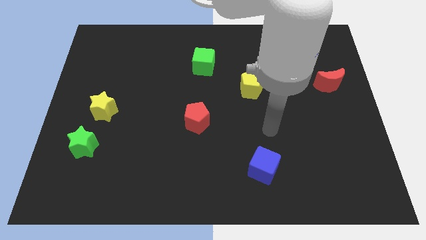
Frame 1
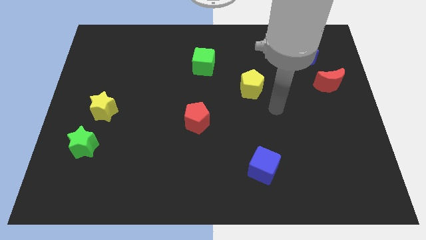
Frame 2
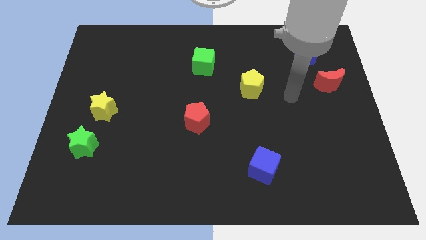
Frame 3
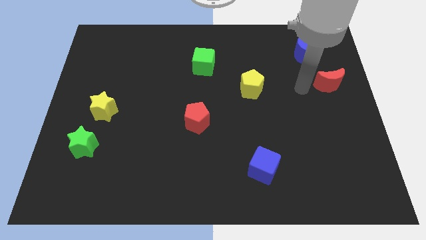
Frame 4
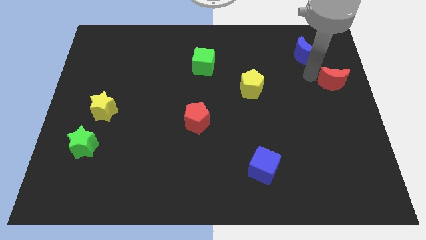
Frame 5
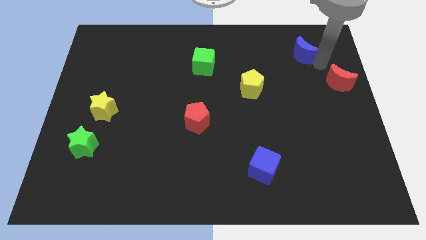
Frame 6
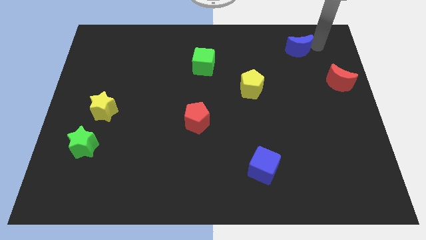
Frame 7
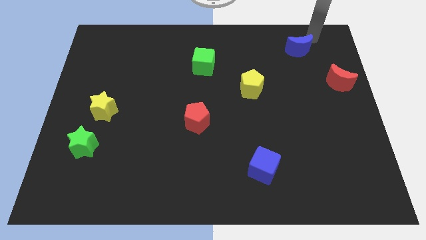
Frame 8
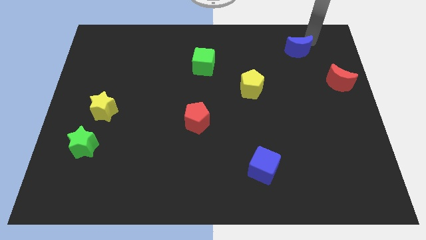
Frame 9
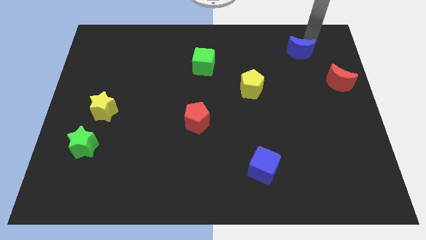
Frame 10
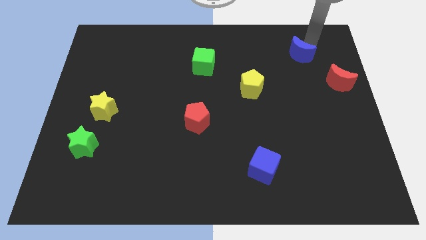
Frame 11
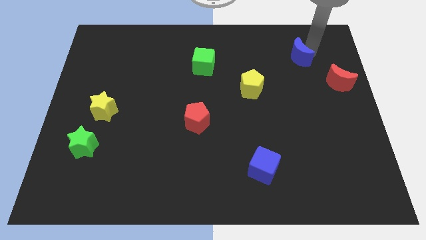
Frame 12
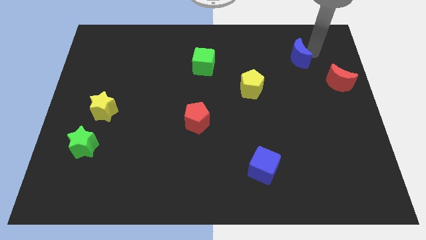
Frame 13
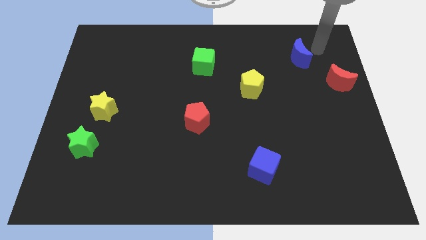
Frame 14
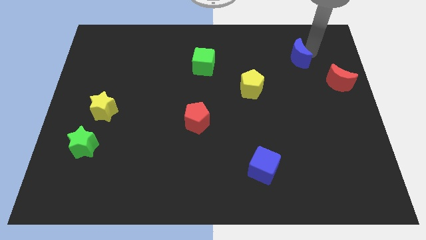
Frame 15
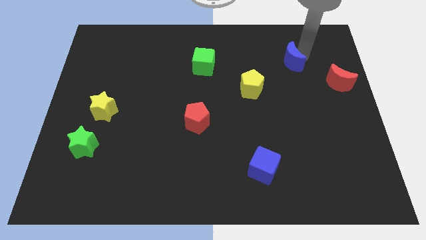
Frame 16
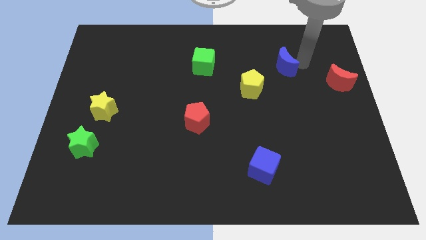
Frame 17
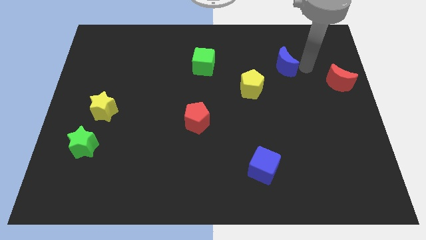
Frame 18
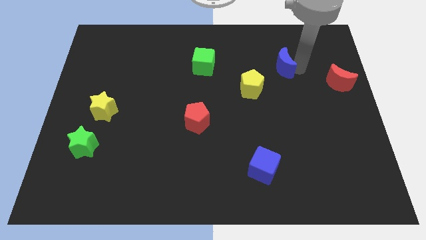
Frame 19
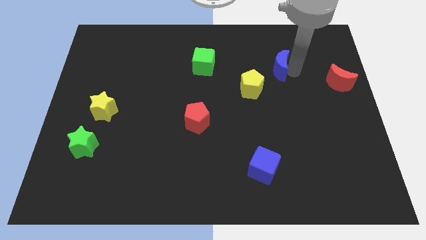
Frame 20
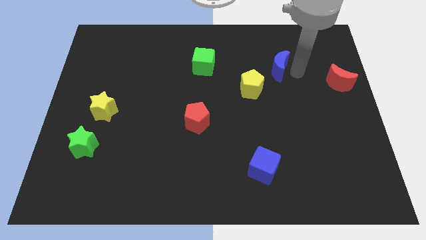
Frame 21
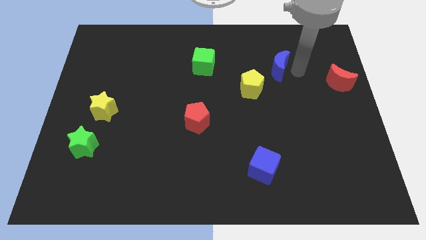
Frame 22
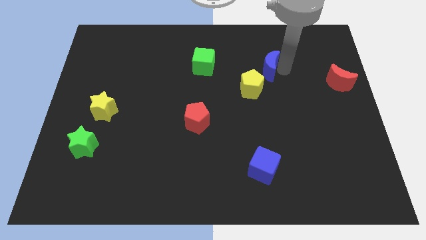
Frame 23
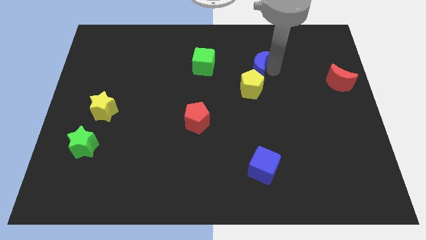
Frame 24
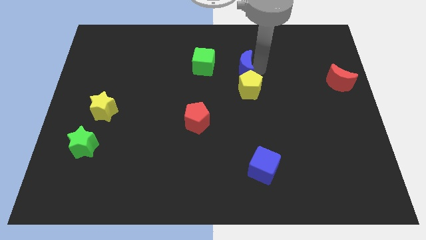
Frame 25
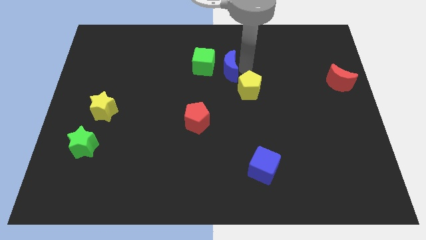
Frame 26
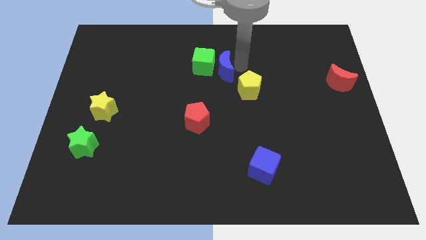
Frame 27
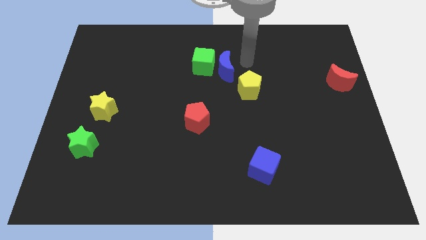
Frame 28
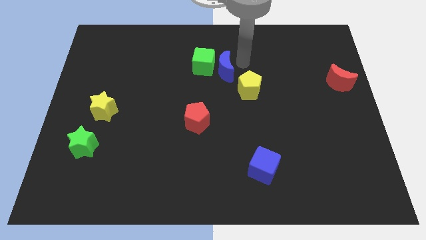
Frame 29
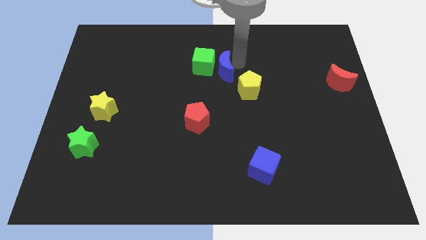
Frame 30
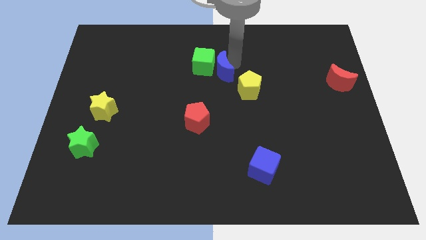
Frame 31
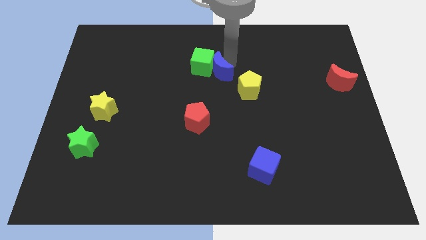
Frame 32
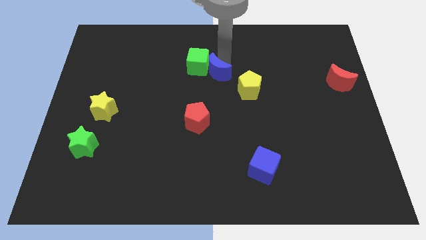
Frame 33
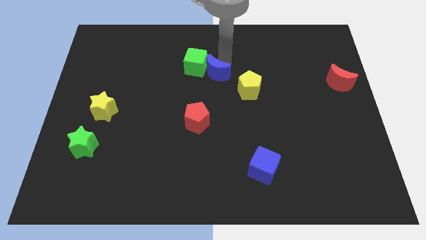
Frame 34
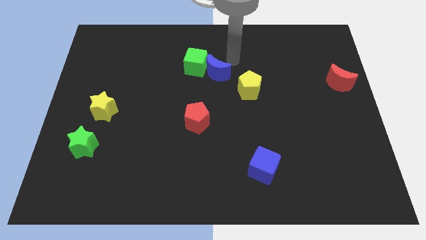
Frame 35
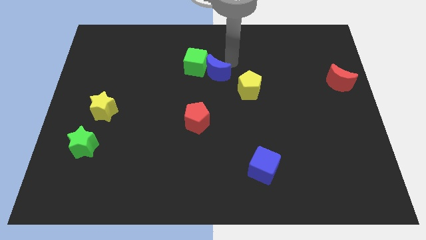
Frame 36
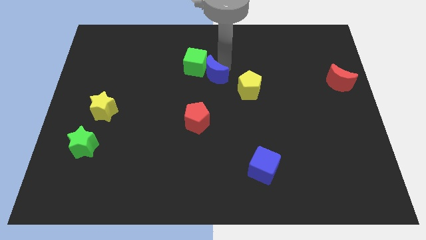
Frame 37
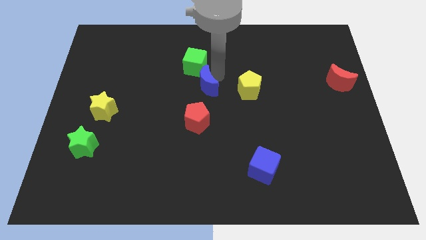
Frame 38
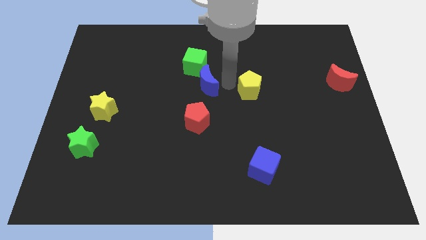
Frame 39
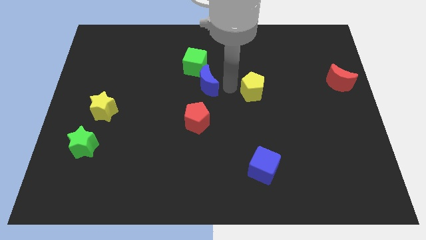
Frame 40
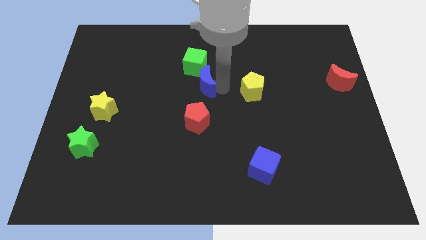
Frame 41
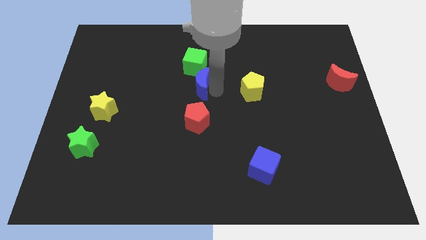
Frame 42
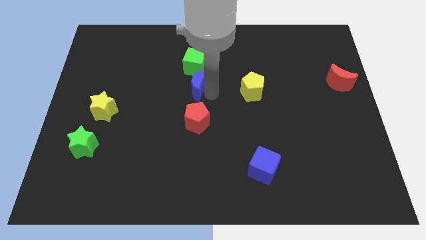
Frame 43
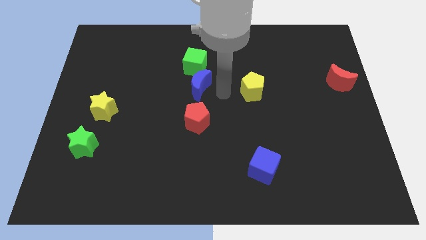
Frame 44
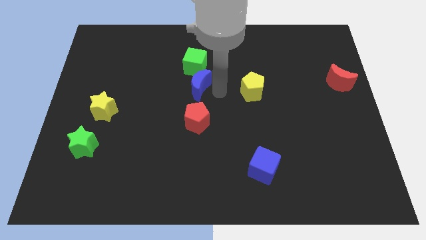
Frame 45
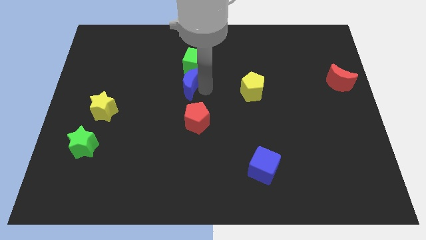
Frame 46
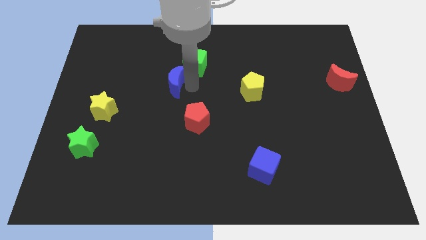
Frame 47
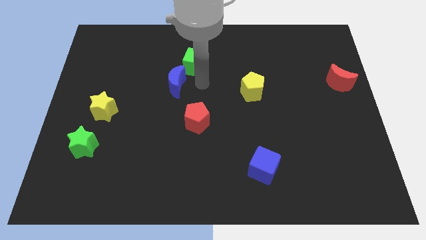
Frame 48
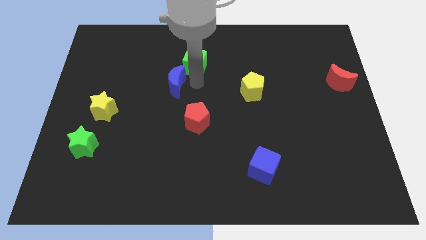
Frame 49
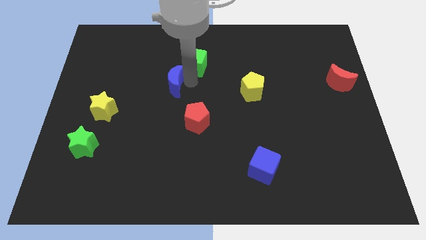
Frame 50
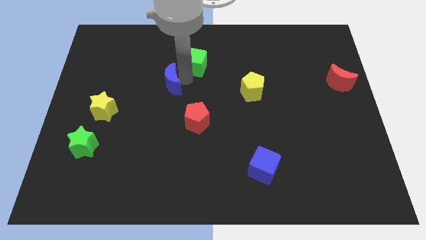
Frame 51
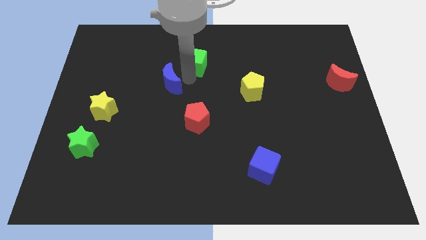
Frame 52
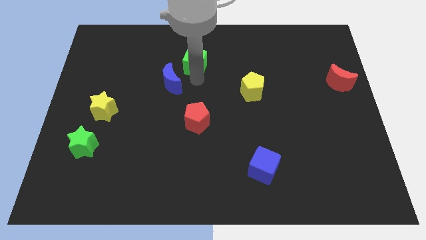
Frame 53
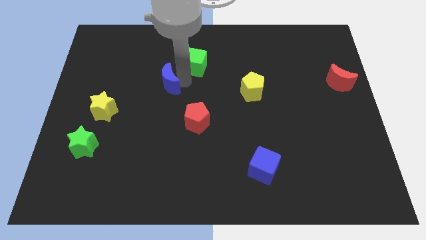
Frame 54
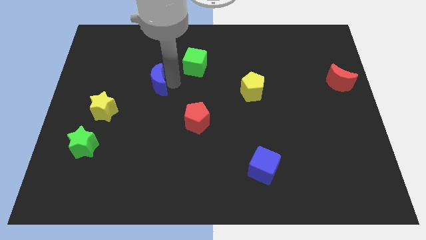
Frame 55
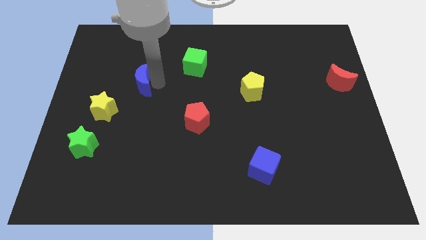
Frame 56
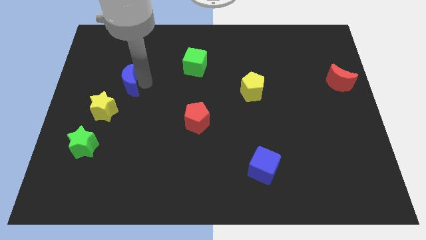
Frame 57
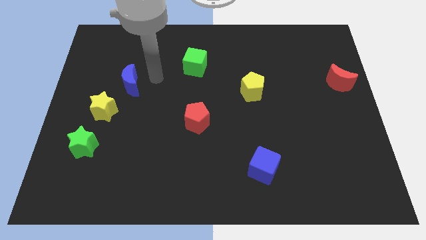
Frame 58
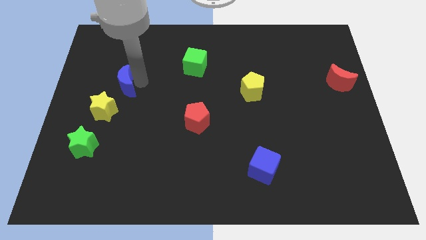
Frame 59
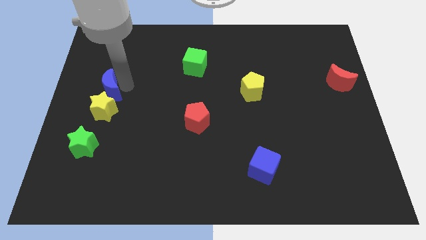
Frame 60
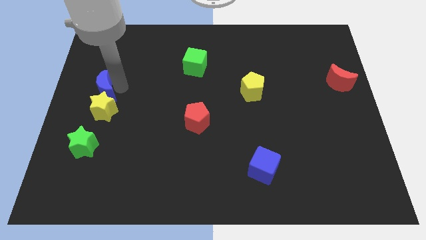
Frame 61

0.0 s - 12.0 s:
push the blue moon to the left side
